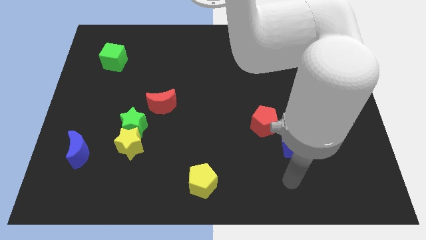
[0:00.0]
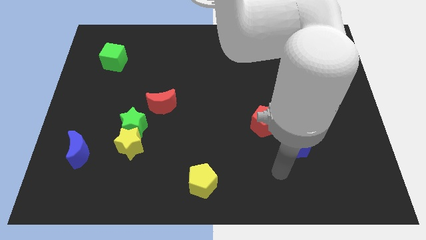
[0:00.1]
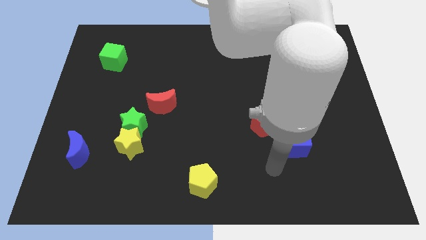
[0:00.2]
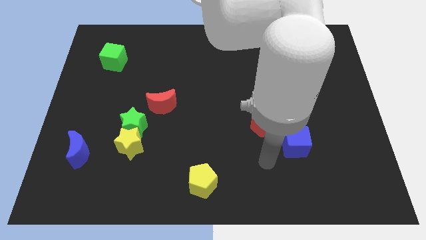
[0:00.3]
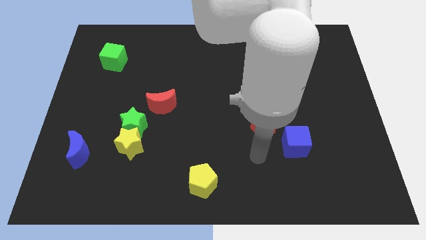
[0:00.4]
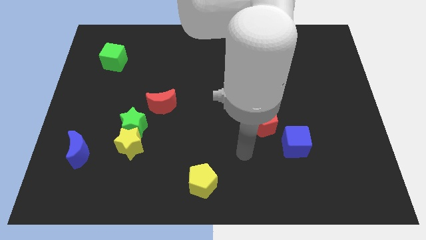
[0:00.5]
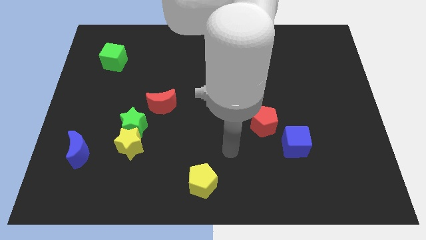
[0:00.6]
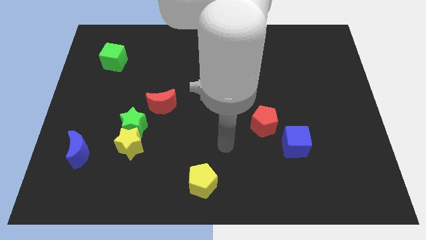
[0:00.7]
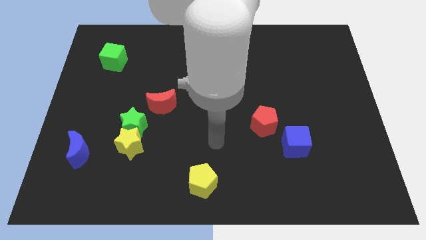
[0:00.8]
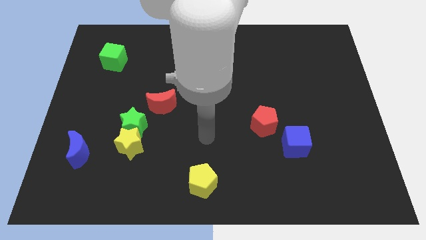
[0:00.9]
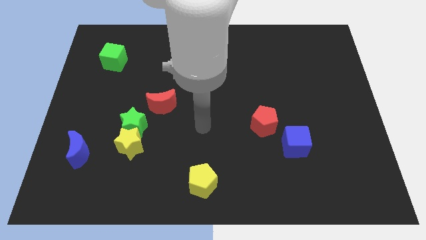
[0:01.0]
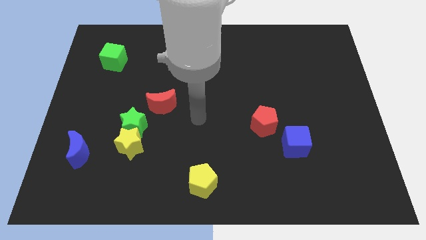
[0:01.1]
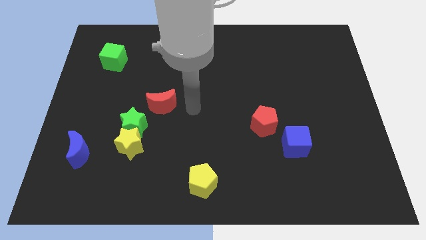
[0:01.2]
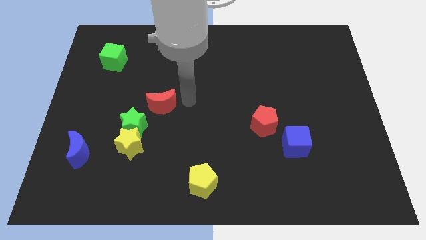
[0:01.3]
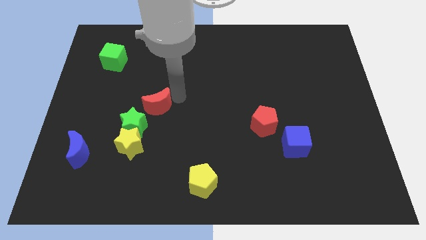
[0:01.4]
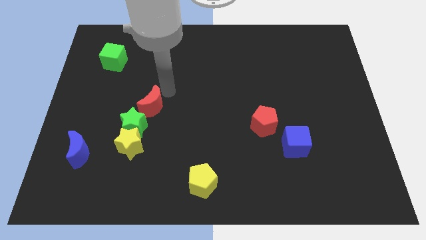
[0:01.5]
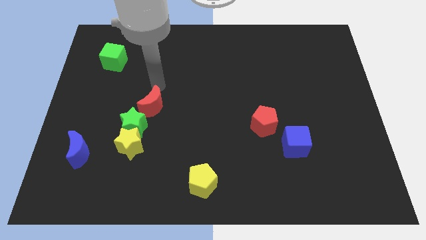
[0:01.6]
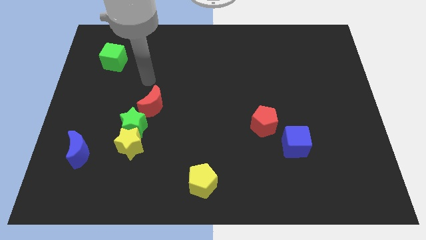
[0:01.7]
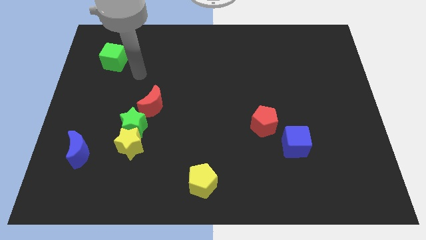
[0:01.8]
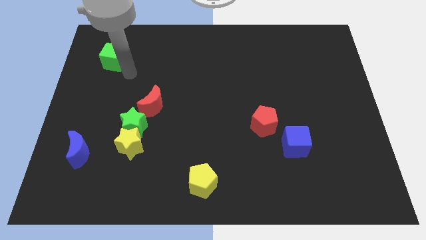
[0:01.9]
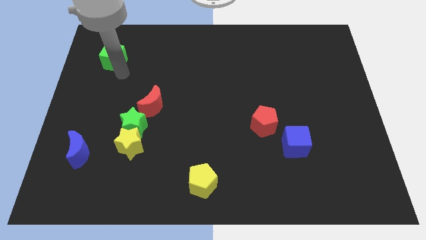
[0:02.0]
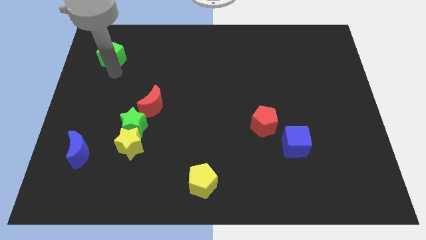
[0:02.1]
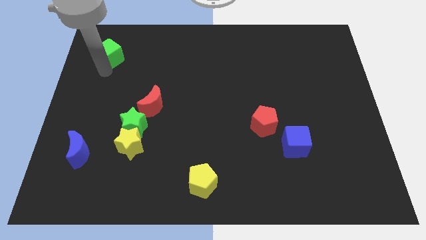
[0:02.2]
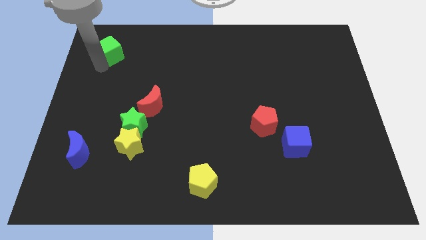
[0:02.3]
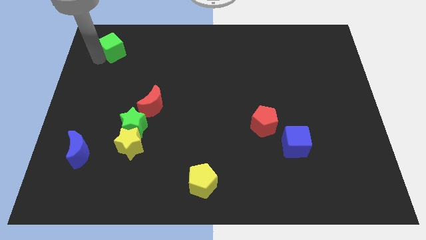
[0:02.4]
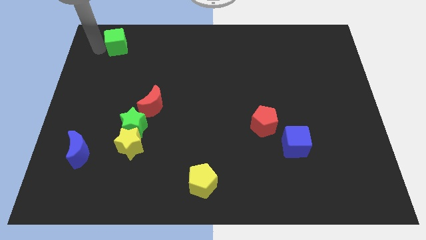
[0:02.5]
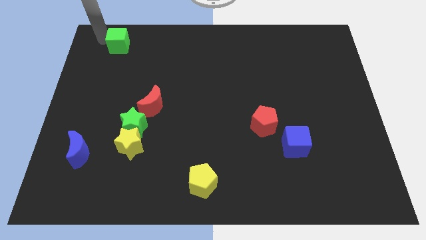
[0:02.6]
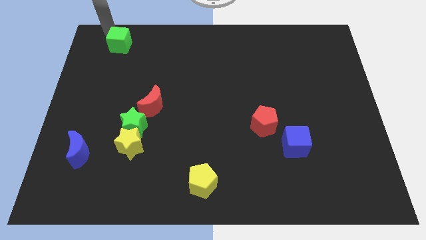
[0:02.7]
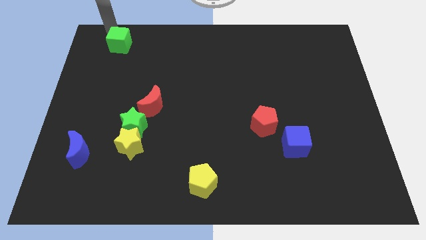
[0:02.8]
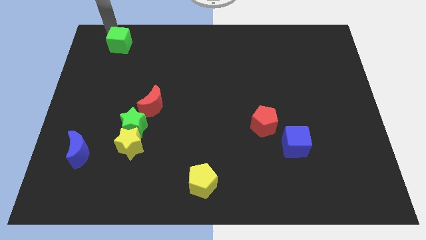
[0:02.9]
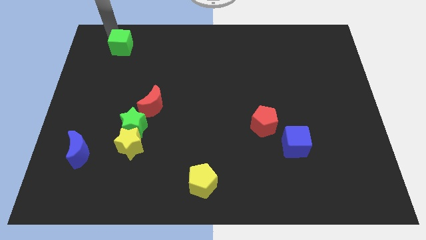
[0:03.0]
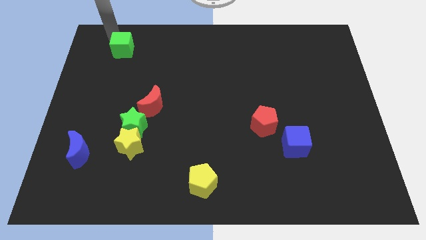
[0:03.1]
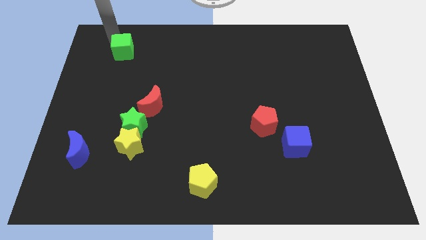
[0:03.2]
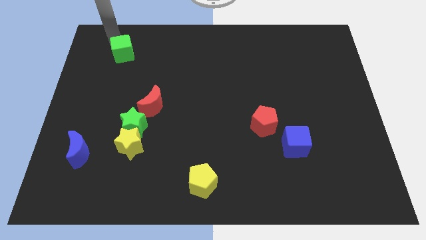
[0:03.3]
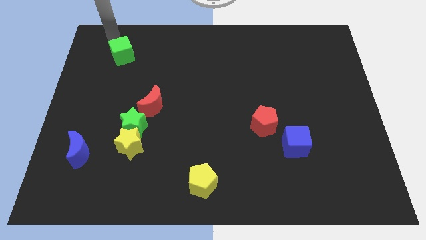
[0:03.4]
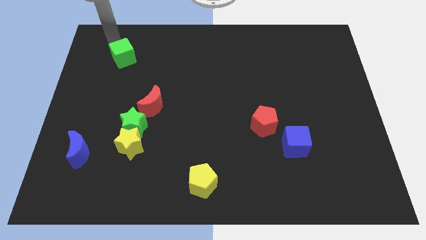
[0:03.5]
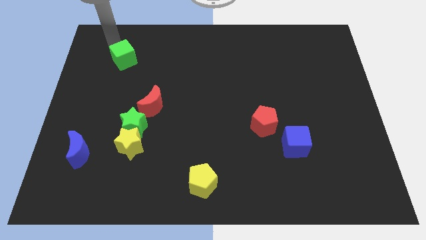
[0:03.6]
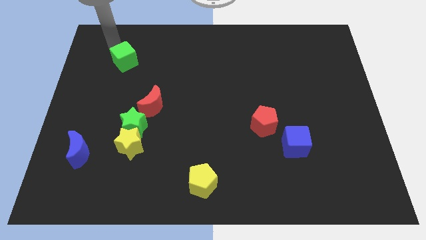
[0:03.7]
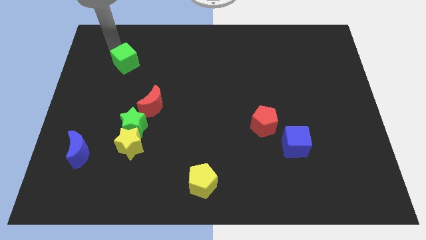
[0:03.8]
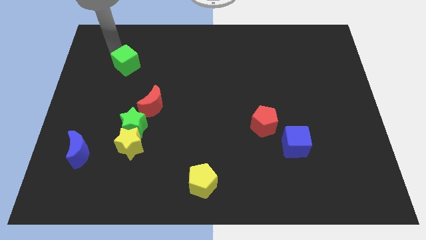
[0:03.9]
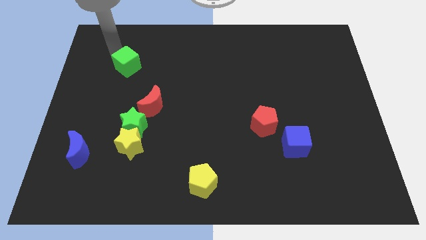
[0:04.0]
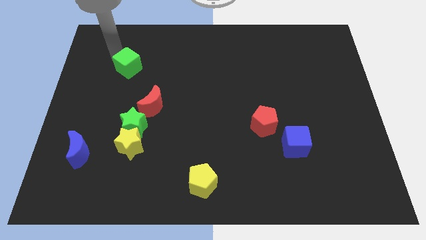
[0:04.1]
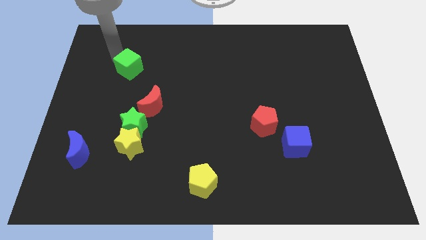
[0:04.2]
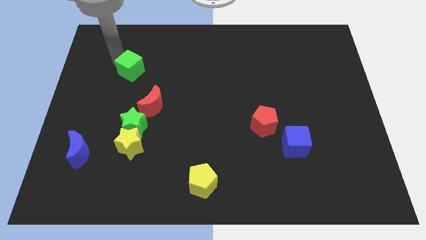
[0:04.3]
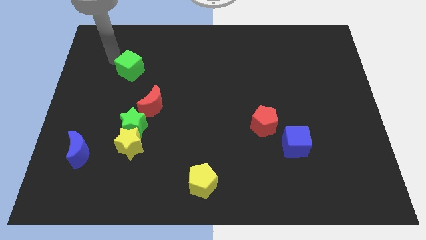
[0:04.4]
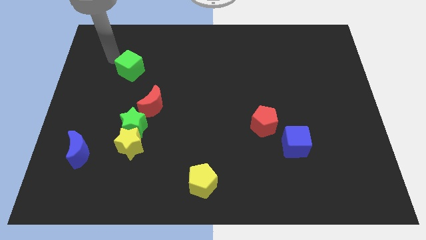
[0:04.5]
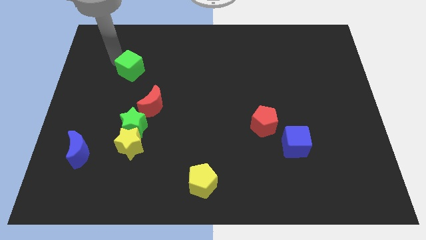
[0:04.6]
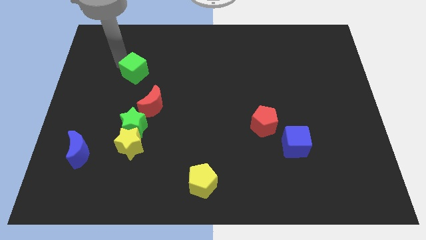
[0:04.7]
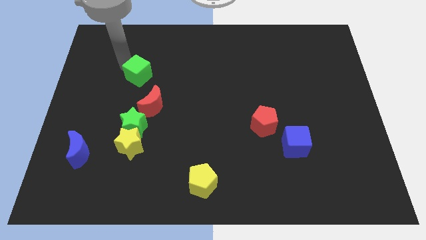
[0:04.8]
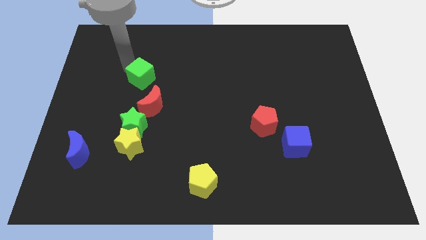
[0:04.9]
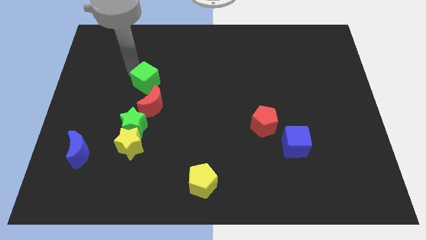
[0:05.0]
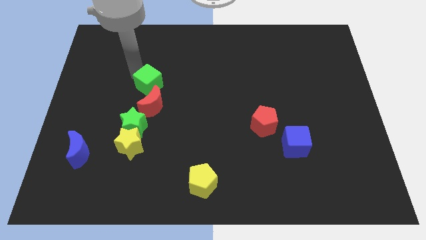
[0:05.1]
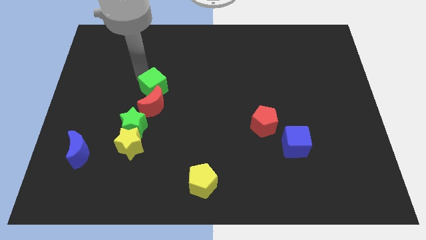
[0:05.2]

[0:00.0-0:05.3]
push the green cube to the red moon

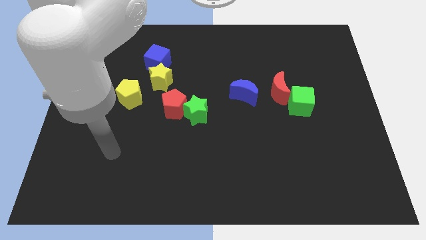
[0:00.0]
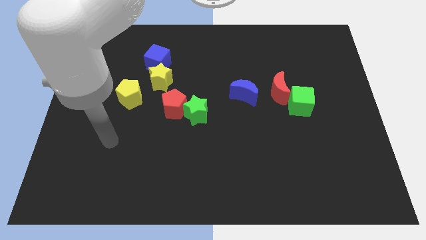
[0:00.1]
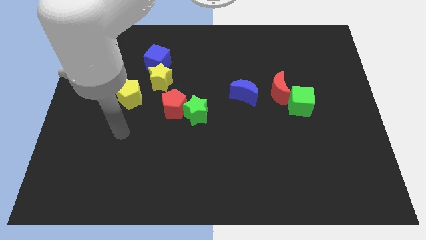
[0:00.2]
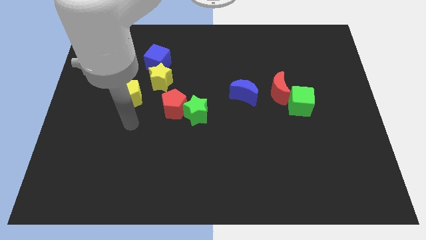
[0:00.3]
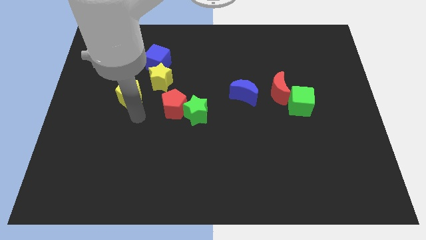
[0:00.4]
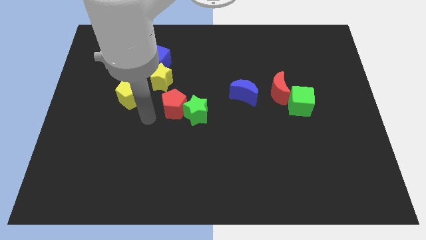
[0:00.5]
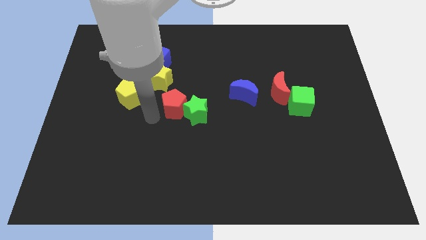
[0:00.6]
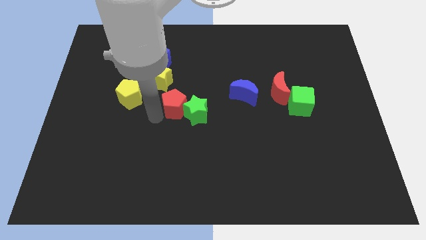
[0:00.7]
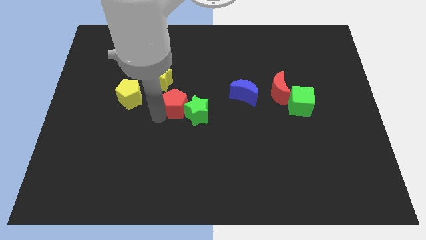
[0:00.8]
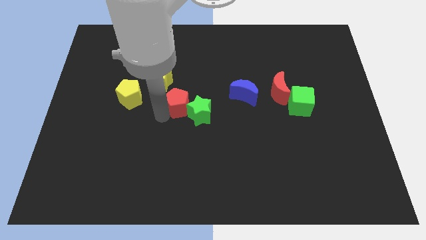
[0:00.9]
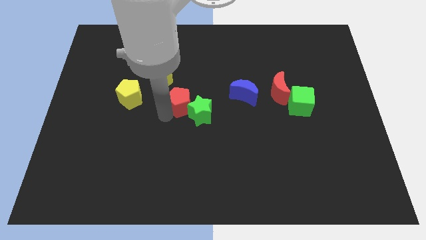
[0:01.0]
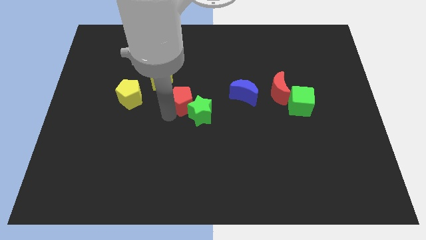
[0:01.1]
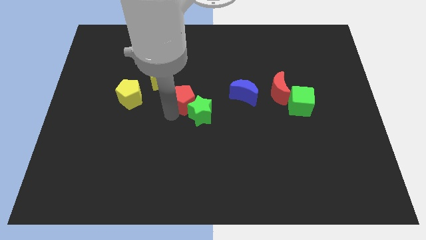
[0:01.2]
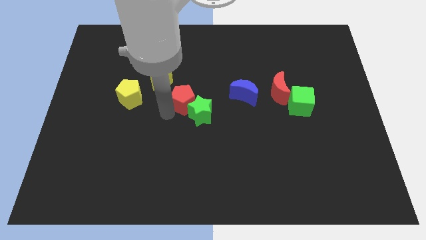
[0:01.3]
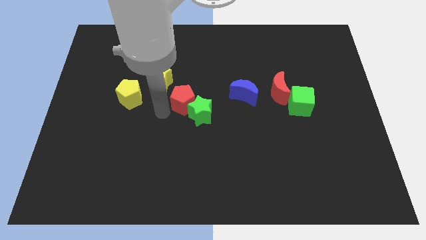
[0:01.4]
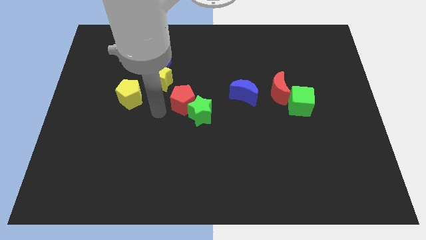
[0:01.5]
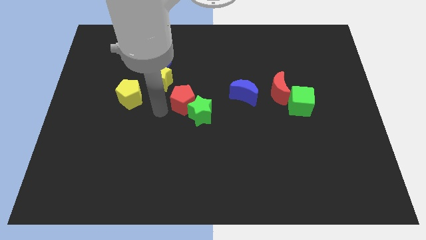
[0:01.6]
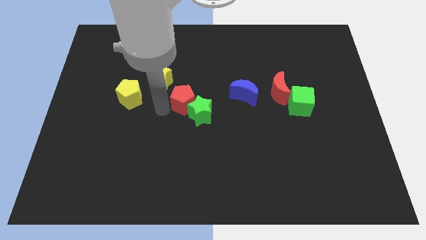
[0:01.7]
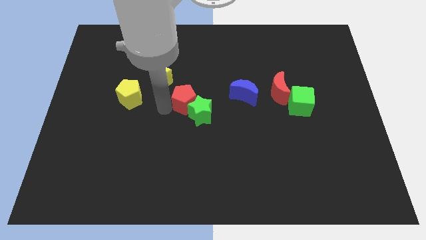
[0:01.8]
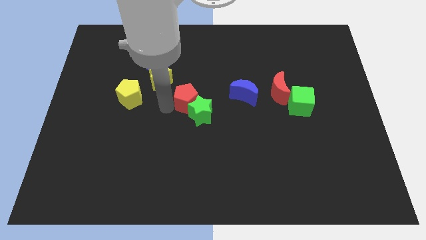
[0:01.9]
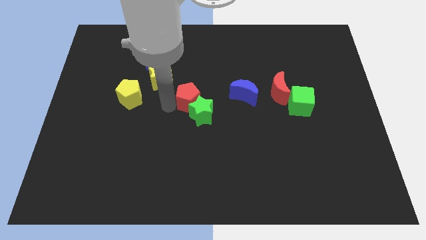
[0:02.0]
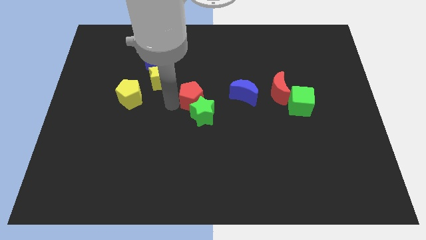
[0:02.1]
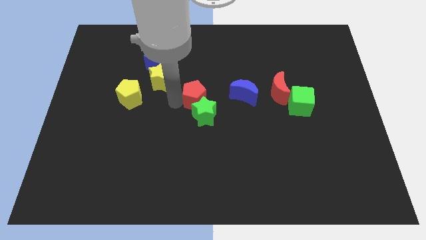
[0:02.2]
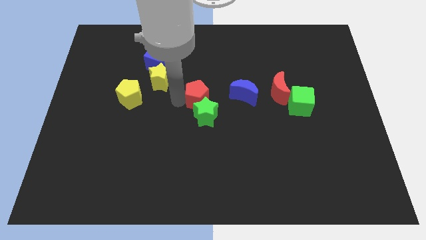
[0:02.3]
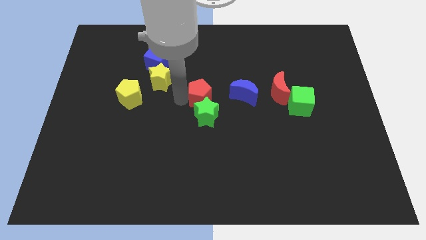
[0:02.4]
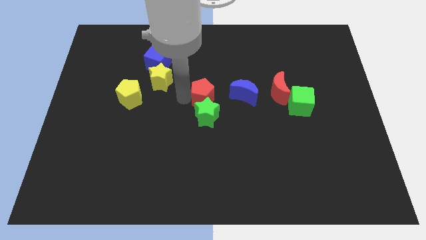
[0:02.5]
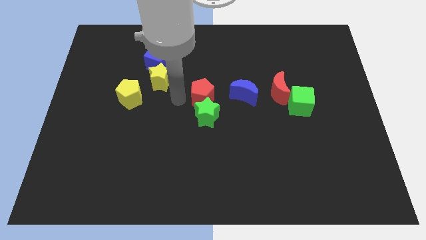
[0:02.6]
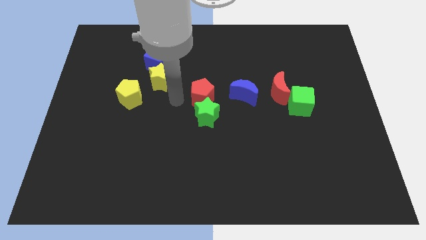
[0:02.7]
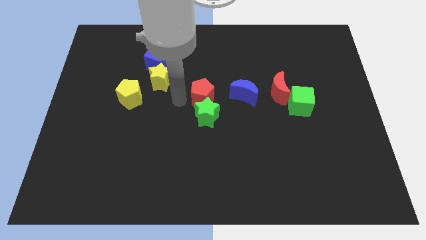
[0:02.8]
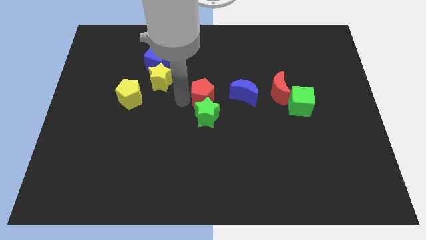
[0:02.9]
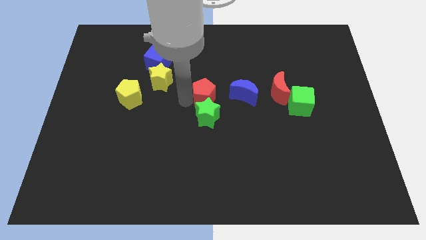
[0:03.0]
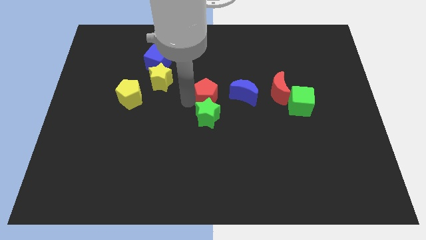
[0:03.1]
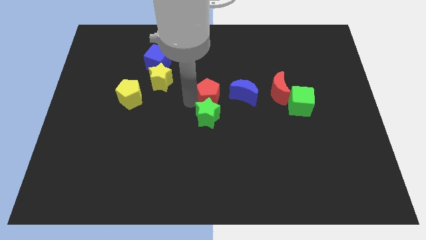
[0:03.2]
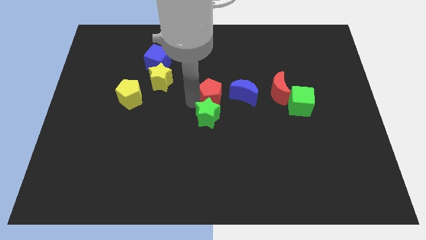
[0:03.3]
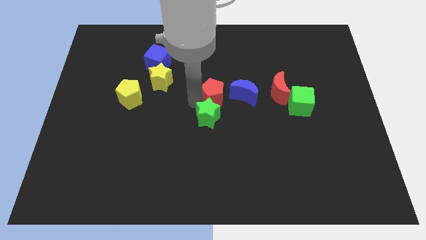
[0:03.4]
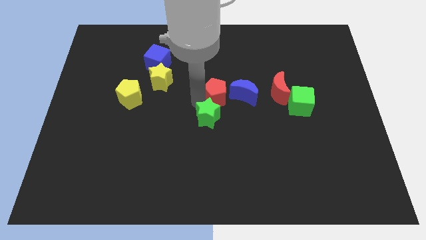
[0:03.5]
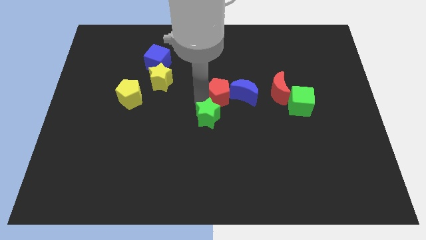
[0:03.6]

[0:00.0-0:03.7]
move the red pentagon close to the blue moon
